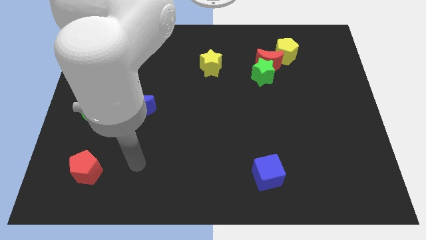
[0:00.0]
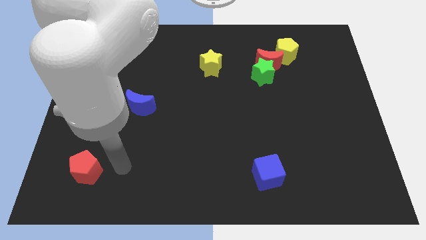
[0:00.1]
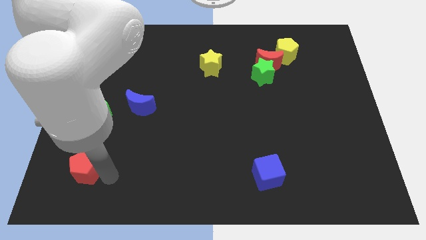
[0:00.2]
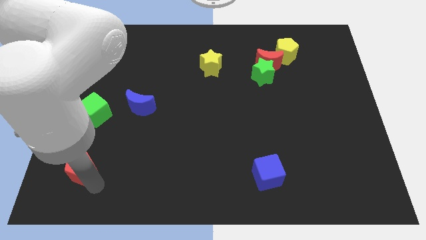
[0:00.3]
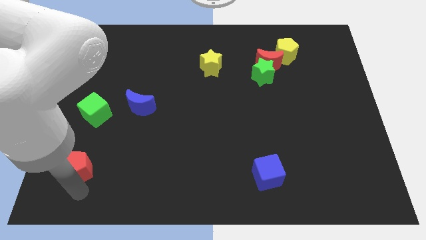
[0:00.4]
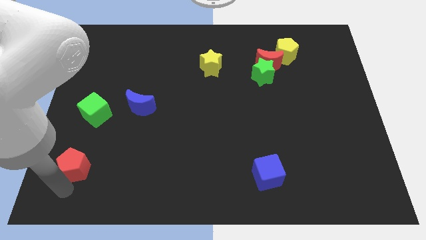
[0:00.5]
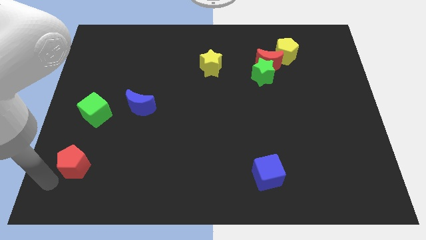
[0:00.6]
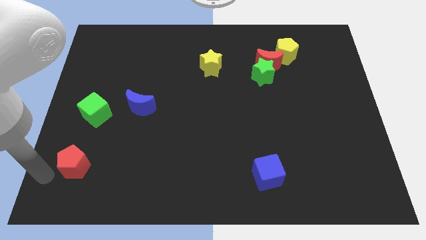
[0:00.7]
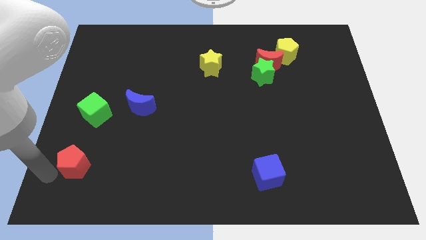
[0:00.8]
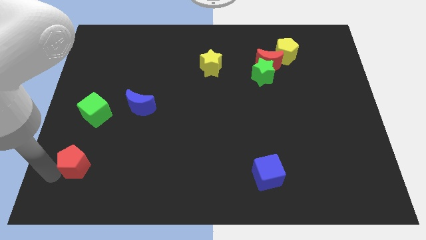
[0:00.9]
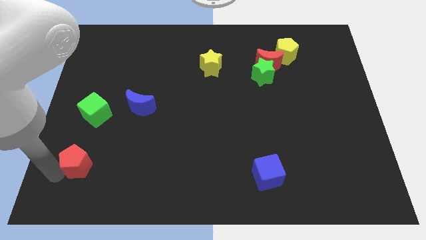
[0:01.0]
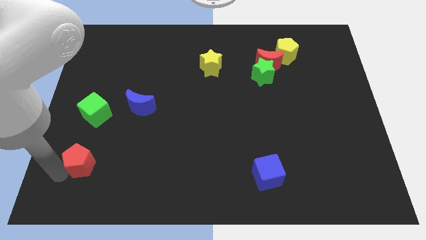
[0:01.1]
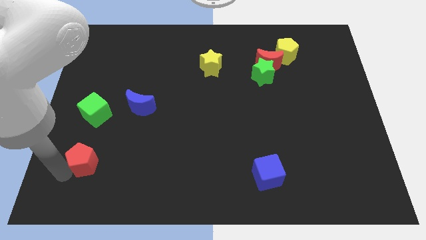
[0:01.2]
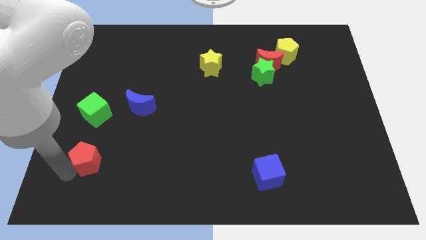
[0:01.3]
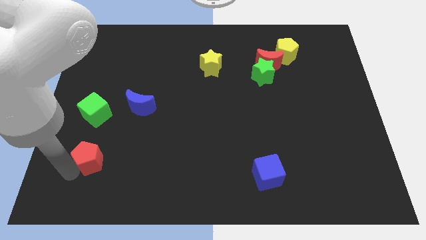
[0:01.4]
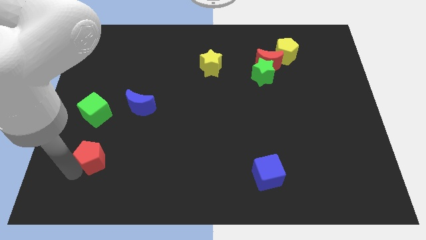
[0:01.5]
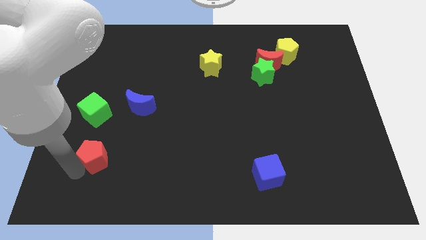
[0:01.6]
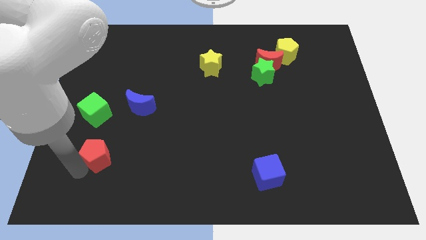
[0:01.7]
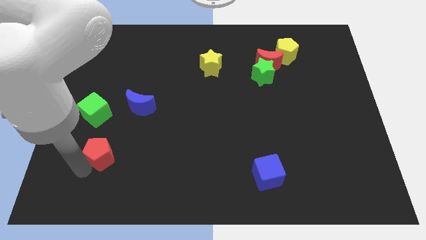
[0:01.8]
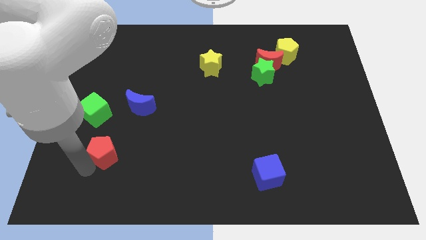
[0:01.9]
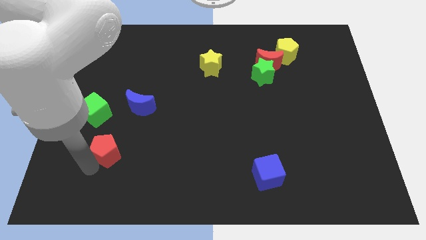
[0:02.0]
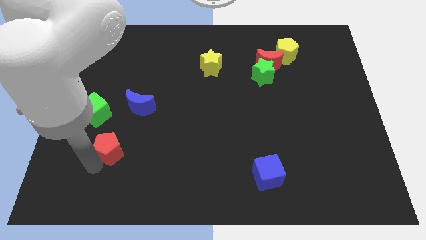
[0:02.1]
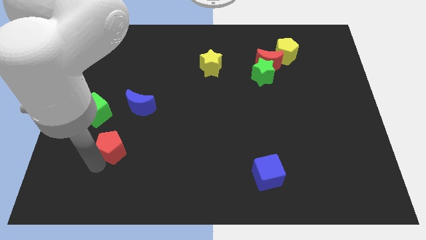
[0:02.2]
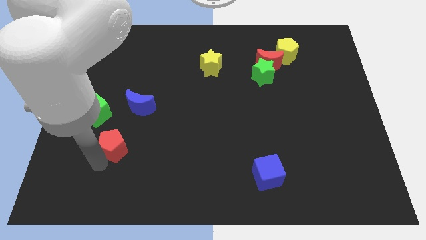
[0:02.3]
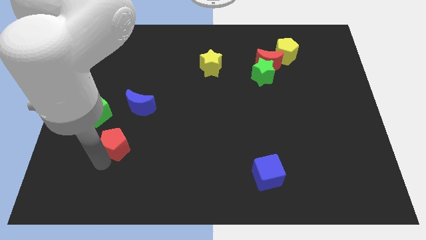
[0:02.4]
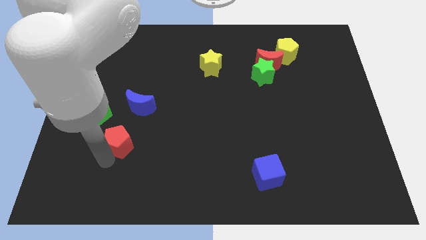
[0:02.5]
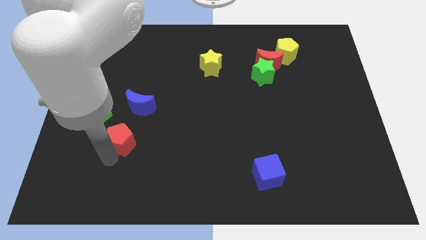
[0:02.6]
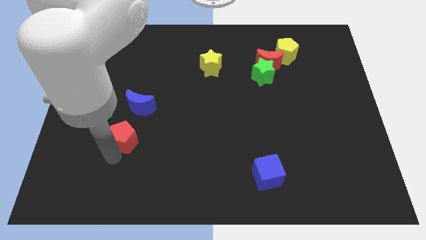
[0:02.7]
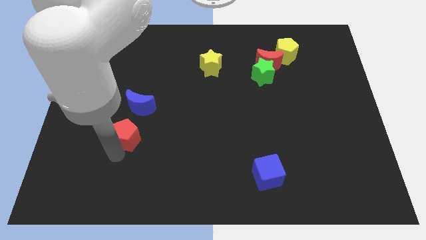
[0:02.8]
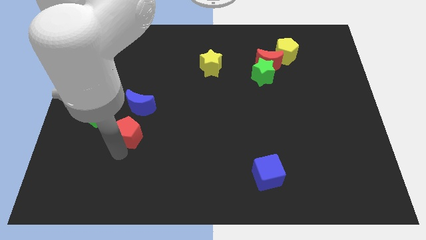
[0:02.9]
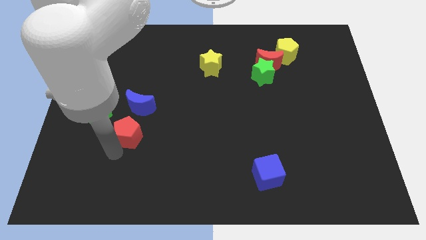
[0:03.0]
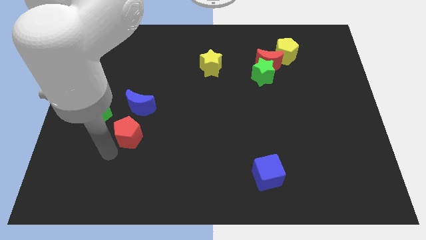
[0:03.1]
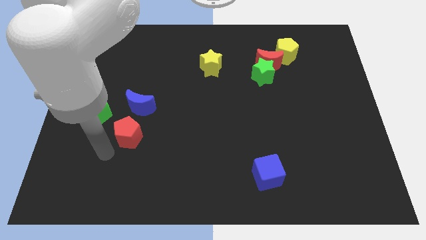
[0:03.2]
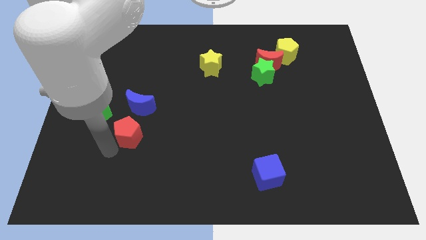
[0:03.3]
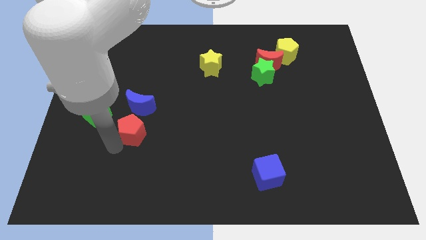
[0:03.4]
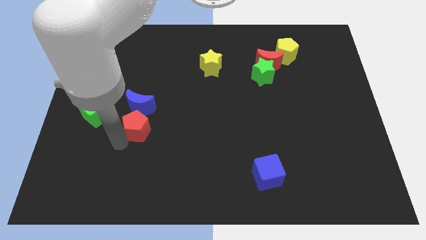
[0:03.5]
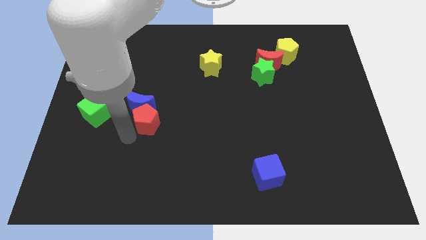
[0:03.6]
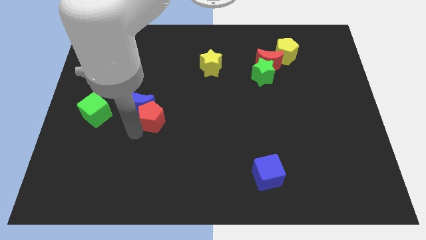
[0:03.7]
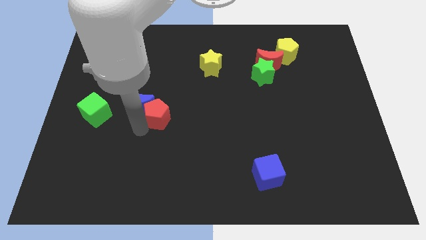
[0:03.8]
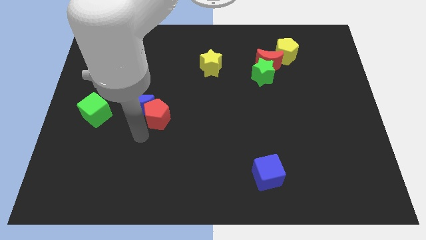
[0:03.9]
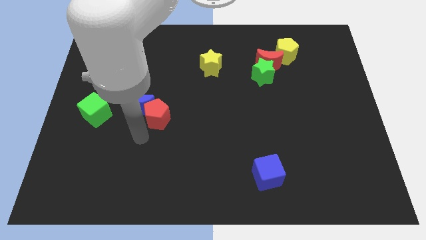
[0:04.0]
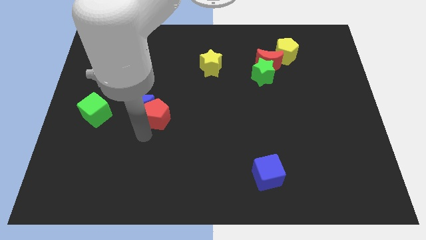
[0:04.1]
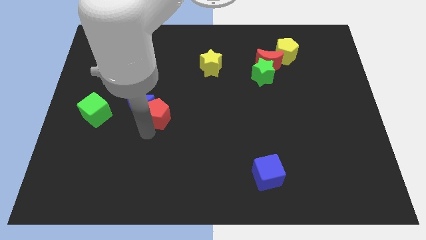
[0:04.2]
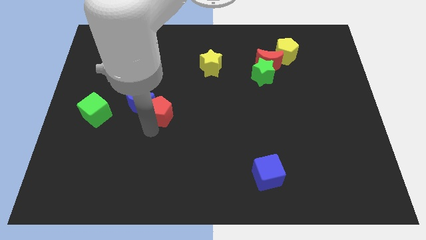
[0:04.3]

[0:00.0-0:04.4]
move the red pentagon diagonally up and right

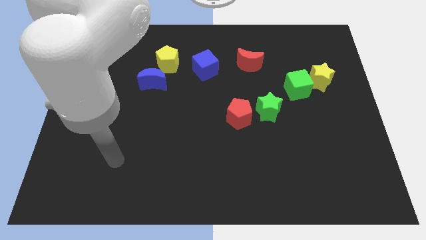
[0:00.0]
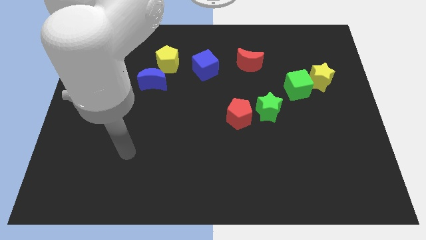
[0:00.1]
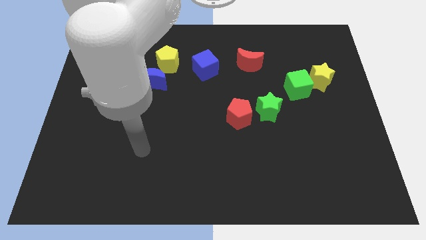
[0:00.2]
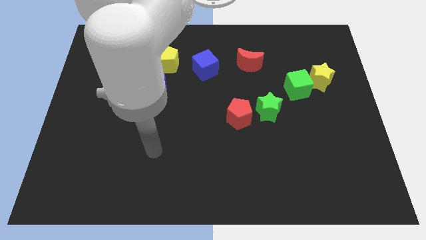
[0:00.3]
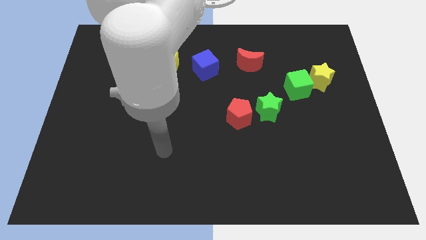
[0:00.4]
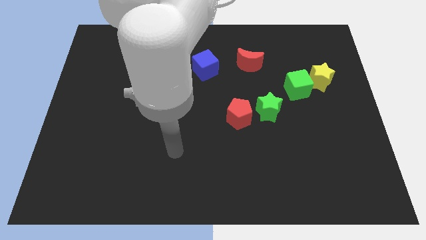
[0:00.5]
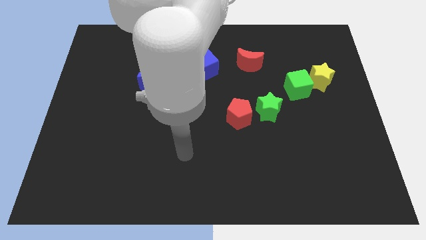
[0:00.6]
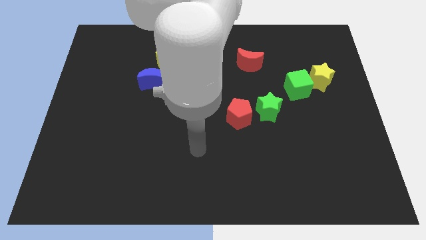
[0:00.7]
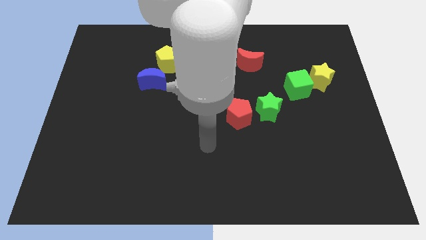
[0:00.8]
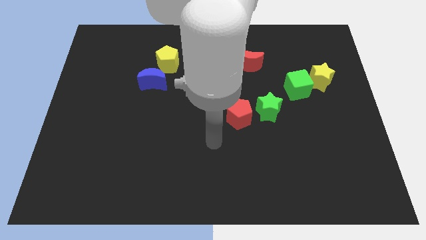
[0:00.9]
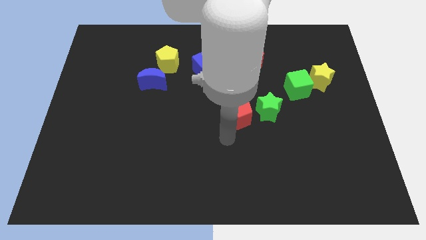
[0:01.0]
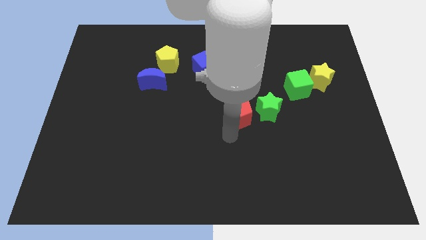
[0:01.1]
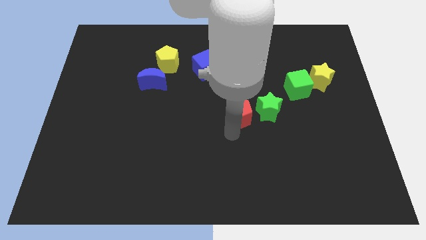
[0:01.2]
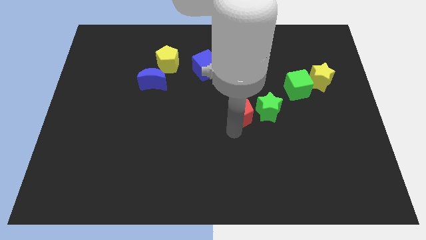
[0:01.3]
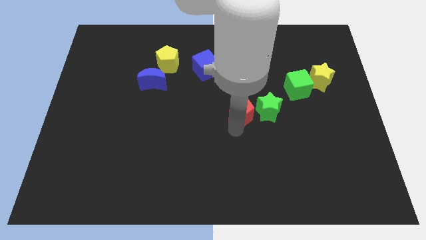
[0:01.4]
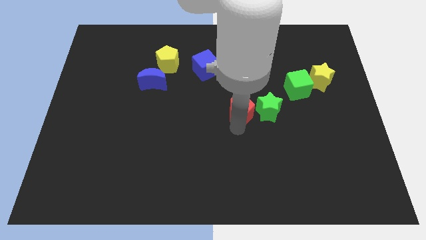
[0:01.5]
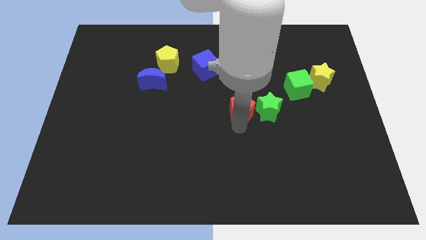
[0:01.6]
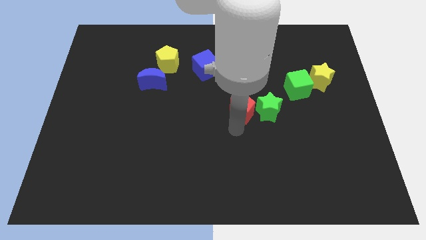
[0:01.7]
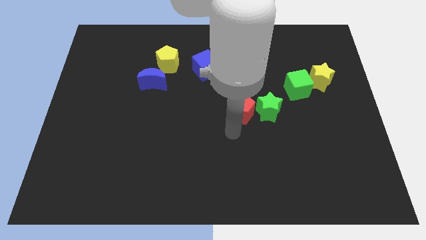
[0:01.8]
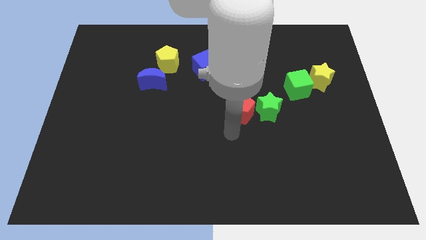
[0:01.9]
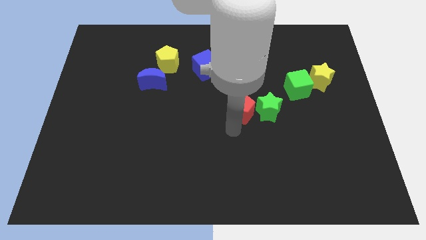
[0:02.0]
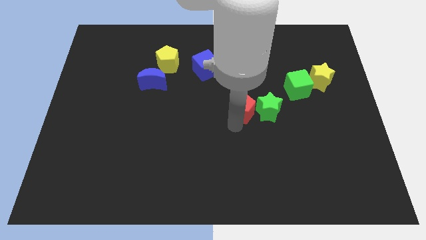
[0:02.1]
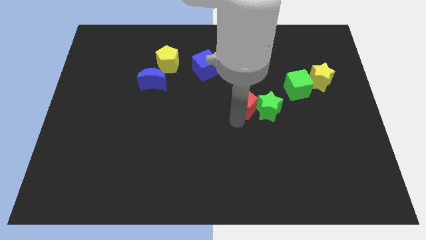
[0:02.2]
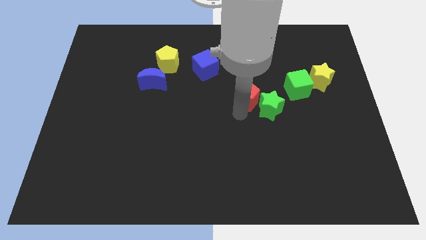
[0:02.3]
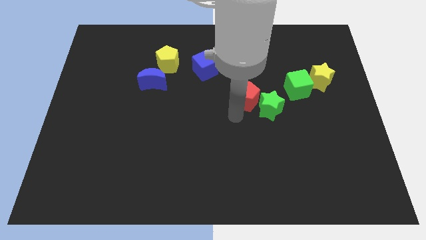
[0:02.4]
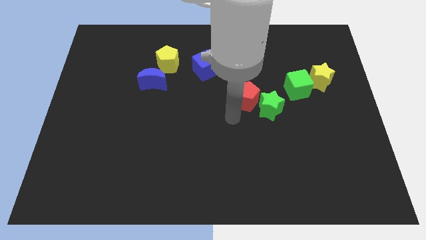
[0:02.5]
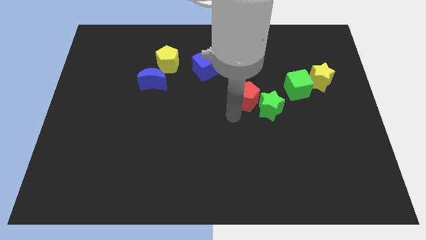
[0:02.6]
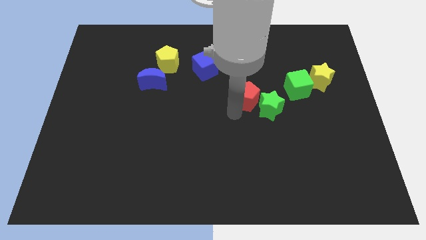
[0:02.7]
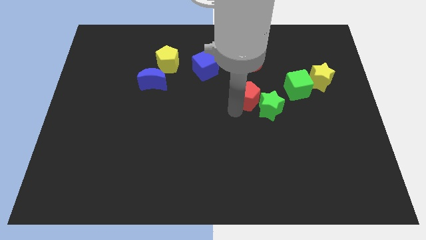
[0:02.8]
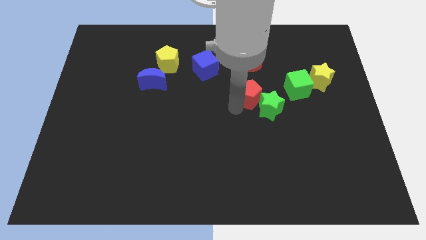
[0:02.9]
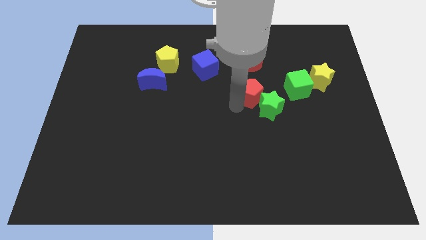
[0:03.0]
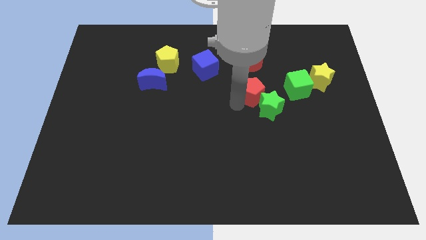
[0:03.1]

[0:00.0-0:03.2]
slide the red pentagon up and to the right diagonally a little bit

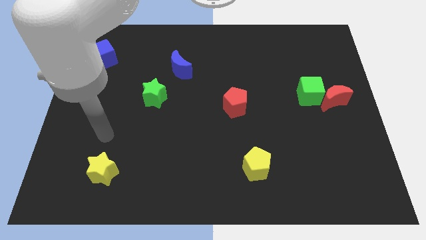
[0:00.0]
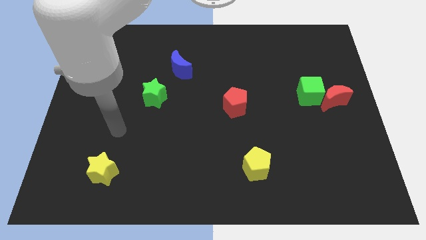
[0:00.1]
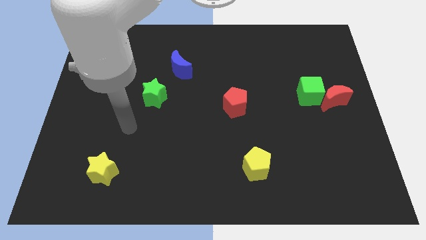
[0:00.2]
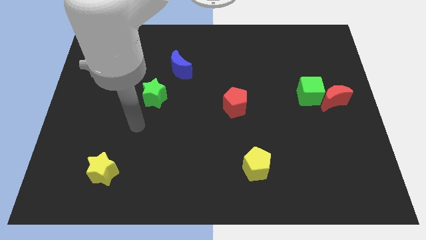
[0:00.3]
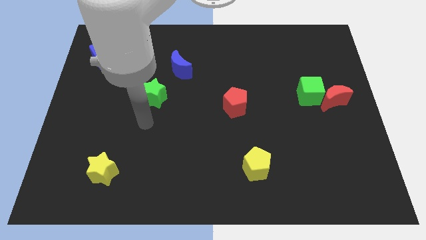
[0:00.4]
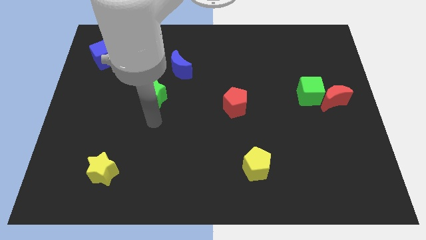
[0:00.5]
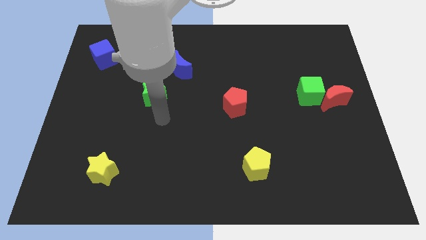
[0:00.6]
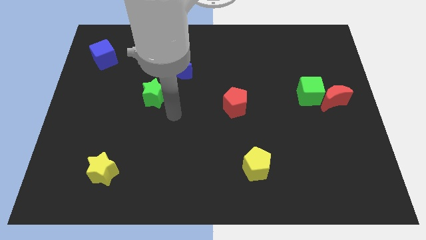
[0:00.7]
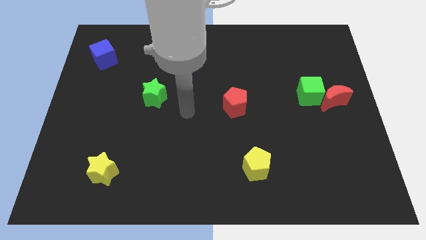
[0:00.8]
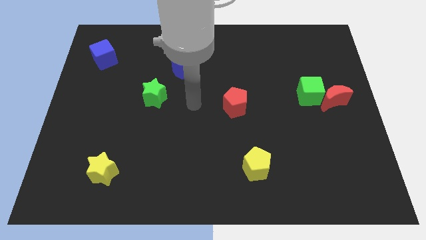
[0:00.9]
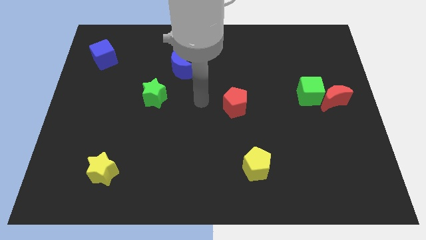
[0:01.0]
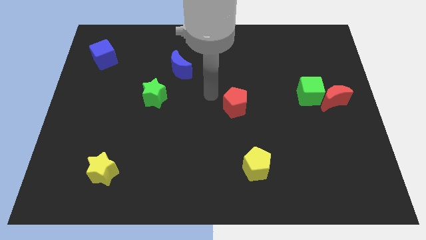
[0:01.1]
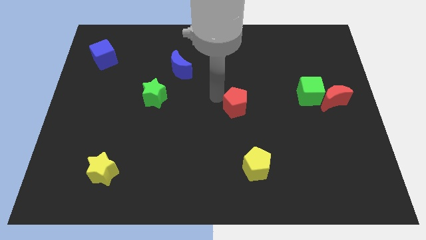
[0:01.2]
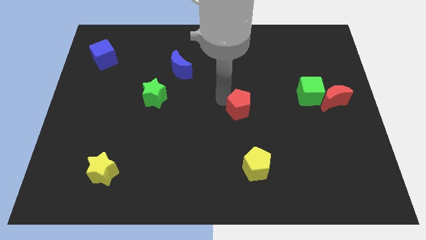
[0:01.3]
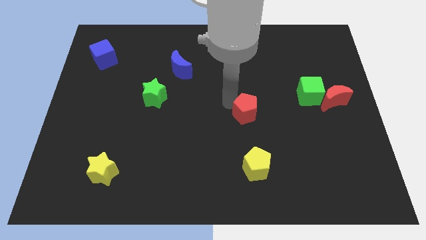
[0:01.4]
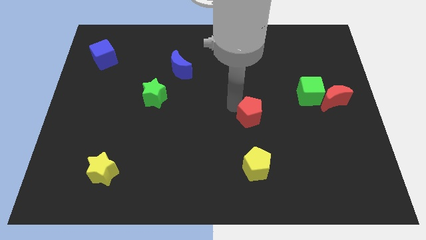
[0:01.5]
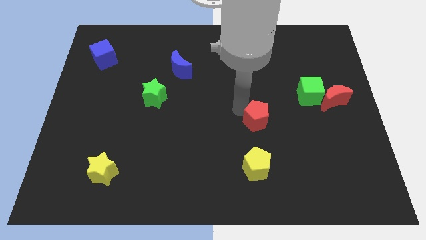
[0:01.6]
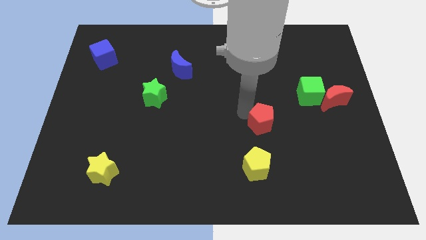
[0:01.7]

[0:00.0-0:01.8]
slightly push the red pentagon downwards and then right
